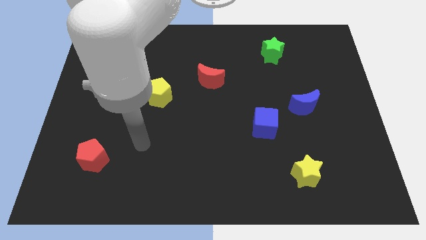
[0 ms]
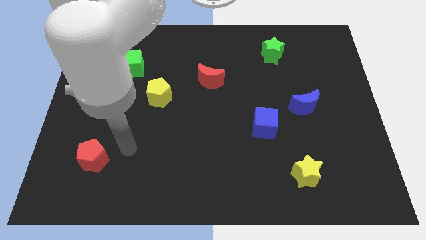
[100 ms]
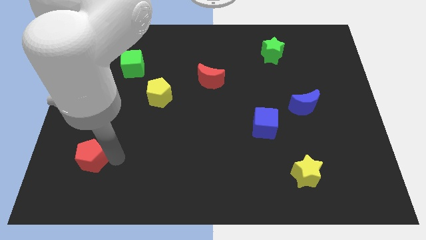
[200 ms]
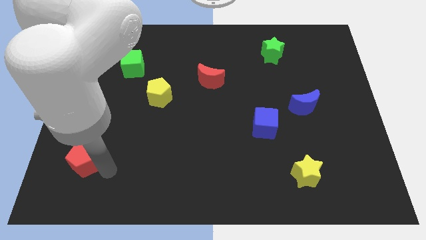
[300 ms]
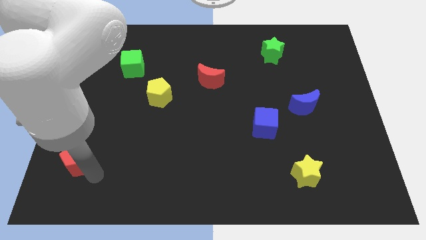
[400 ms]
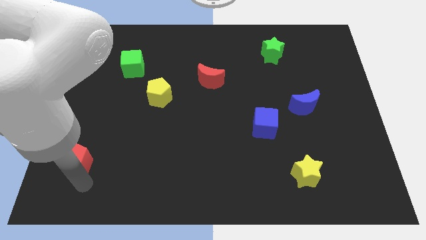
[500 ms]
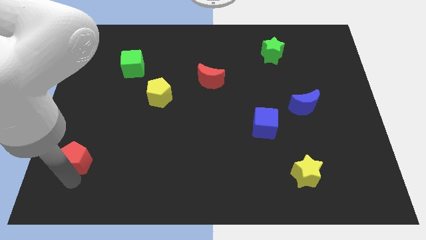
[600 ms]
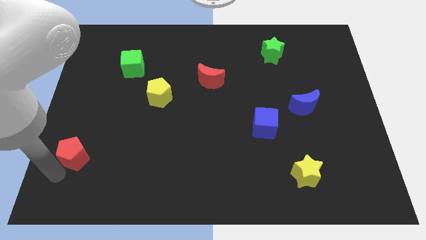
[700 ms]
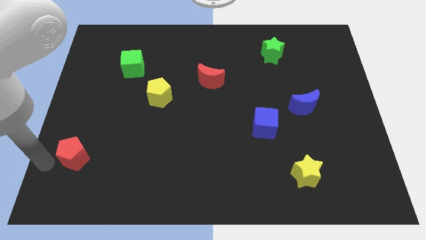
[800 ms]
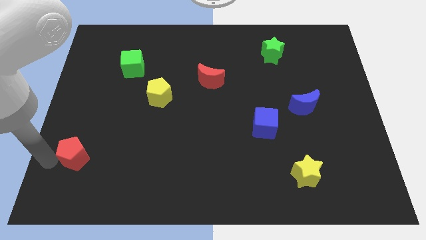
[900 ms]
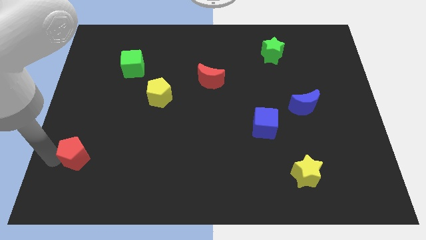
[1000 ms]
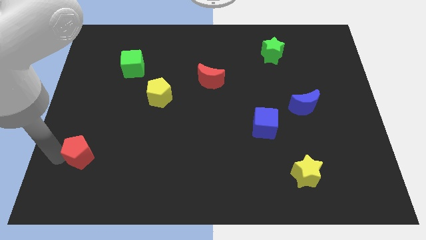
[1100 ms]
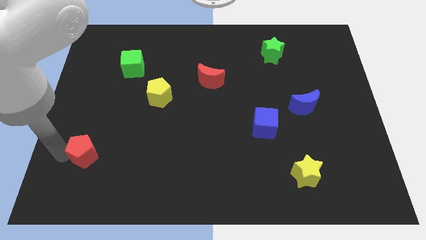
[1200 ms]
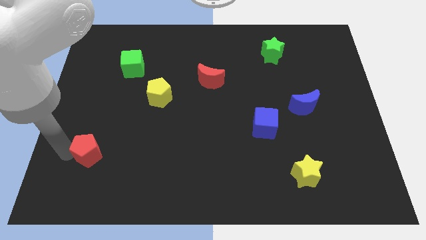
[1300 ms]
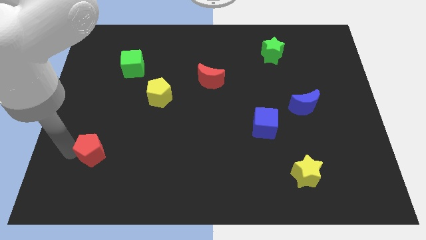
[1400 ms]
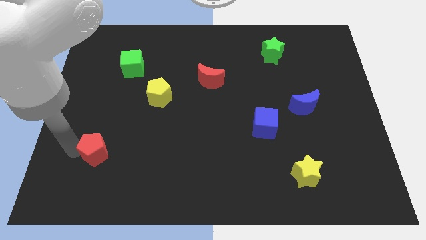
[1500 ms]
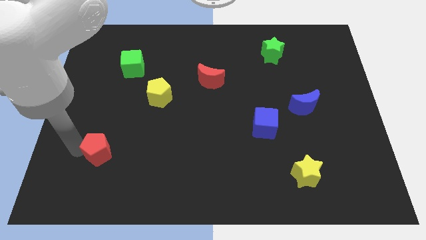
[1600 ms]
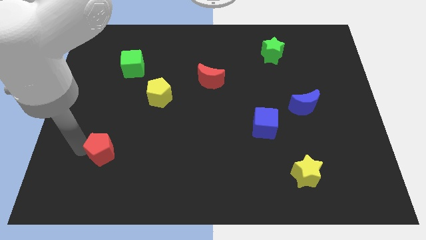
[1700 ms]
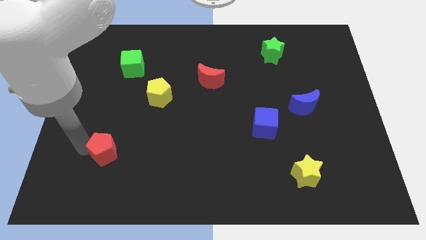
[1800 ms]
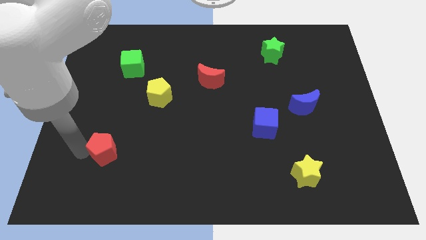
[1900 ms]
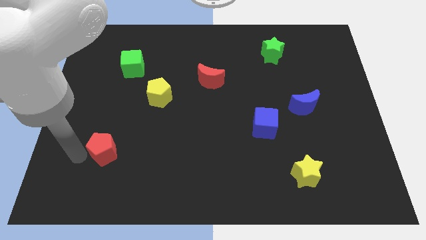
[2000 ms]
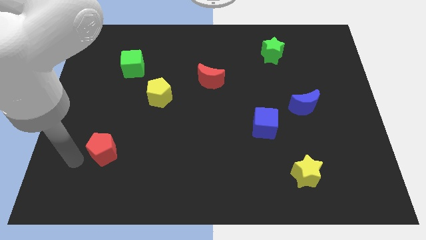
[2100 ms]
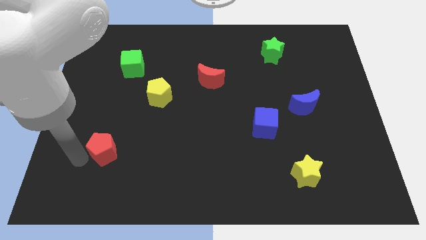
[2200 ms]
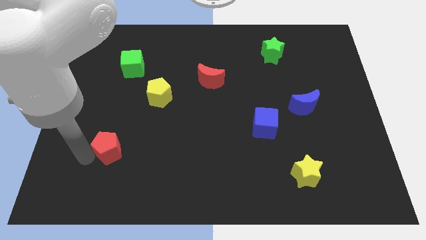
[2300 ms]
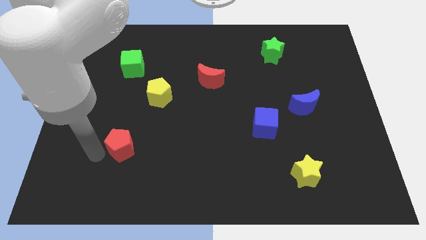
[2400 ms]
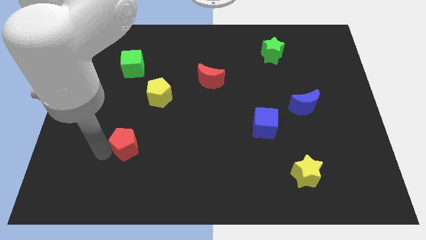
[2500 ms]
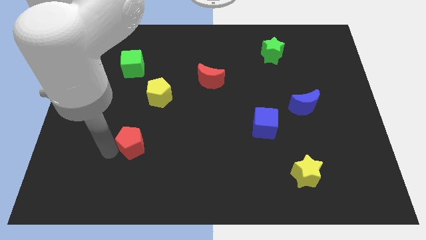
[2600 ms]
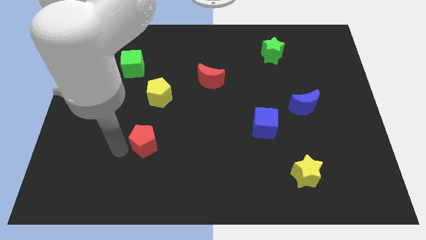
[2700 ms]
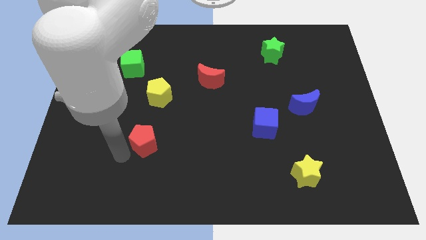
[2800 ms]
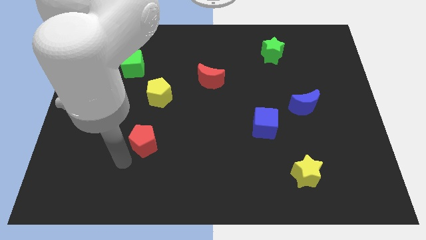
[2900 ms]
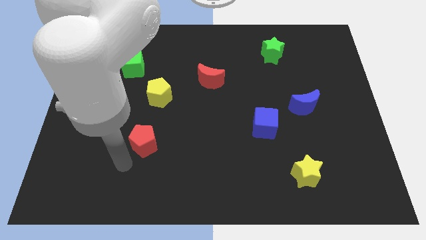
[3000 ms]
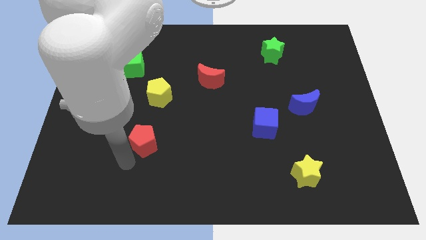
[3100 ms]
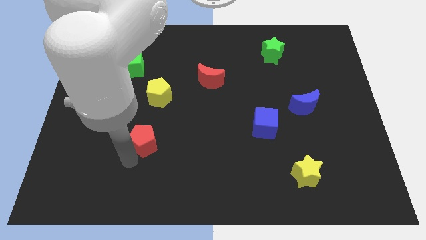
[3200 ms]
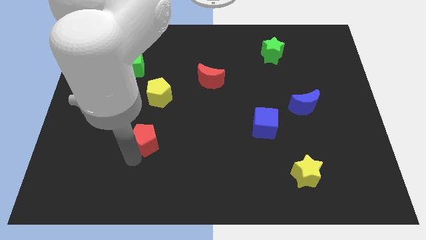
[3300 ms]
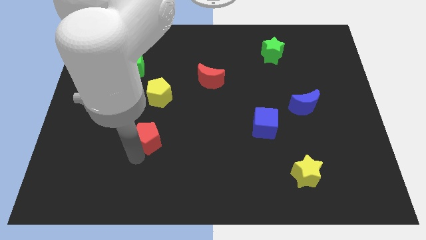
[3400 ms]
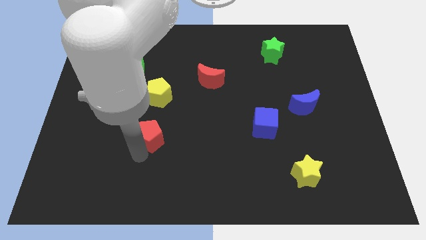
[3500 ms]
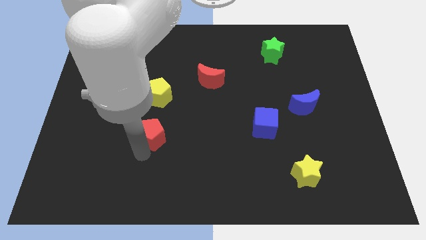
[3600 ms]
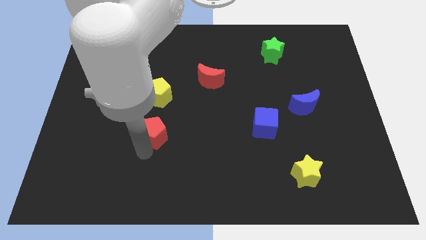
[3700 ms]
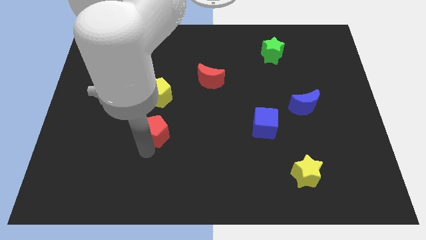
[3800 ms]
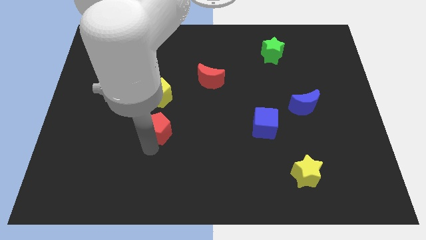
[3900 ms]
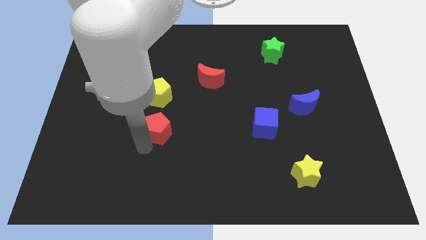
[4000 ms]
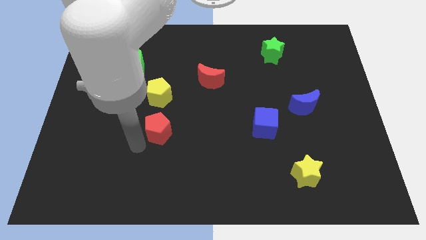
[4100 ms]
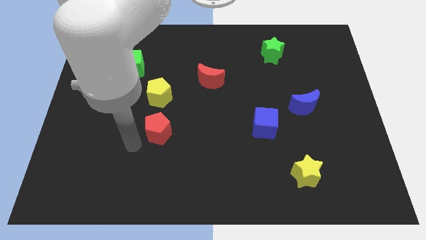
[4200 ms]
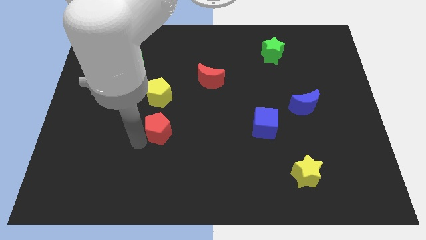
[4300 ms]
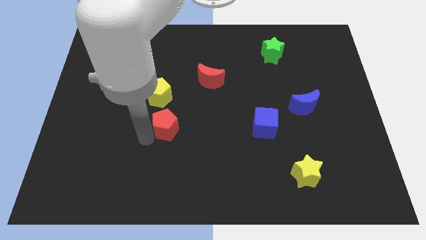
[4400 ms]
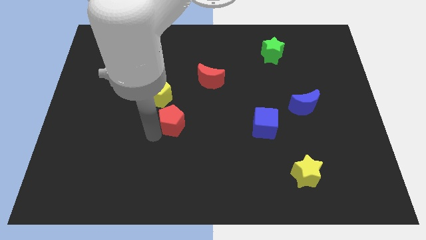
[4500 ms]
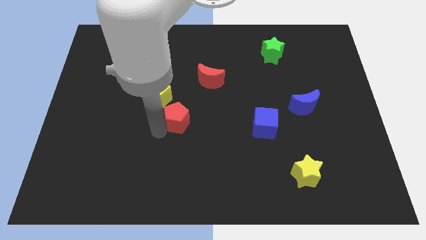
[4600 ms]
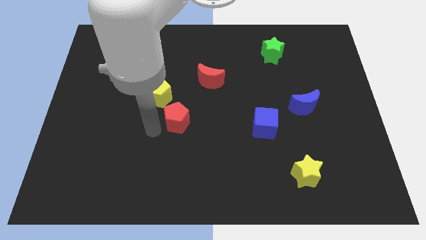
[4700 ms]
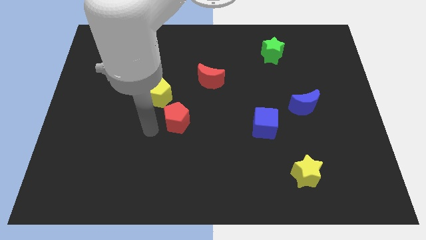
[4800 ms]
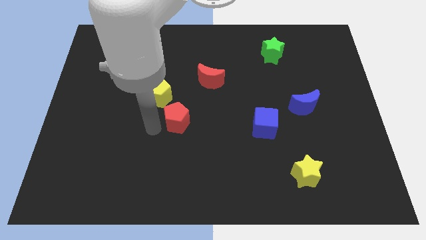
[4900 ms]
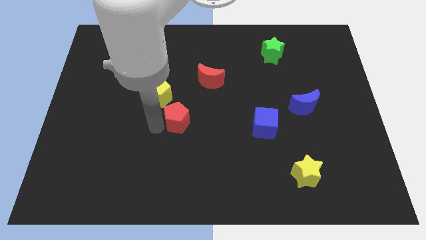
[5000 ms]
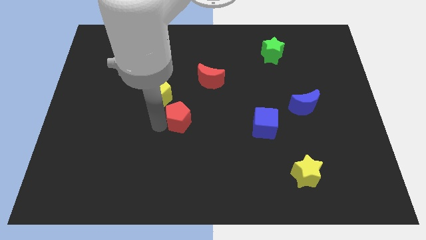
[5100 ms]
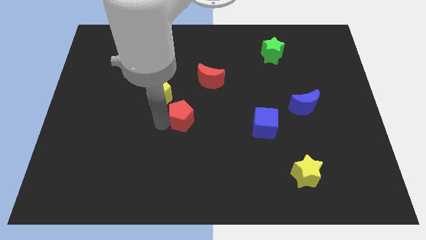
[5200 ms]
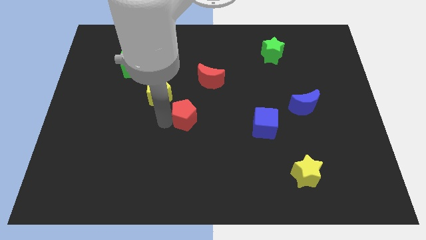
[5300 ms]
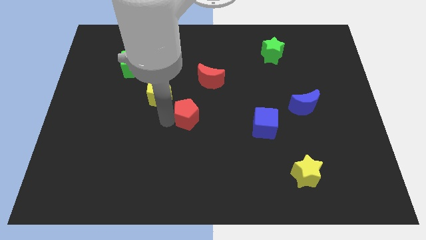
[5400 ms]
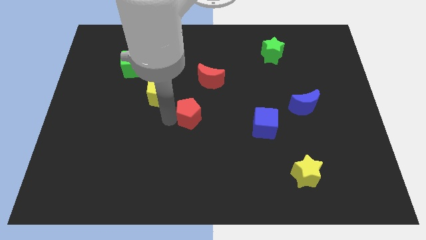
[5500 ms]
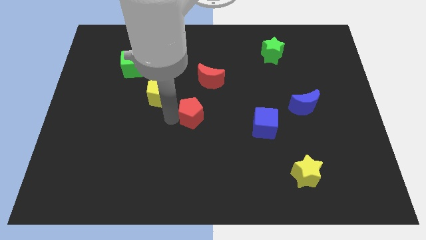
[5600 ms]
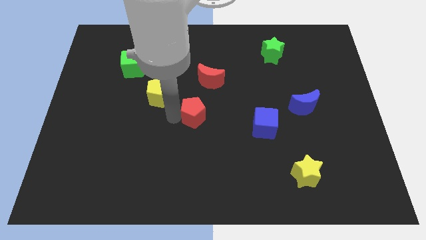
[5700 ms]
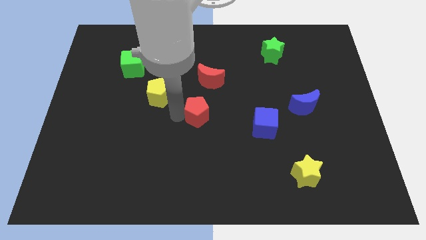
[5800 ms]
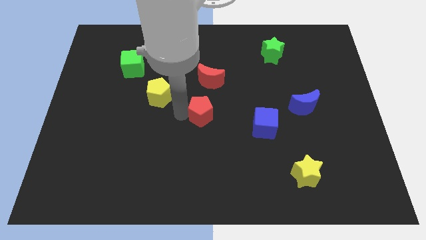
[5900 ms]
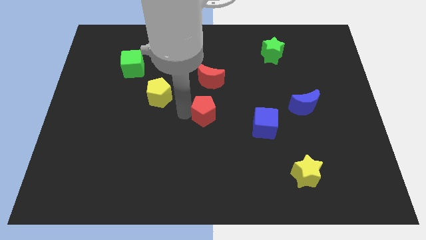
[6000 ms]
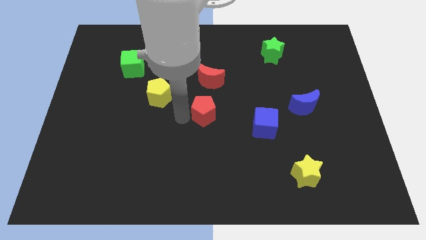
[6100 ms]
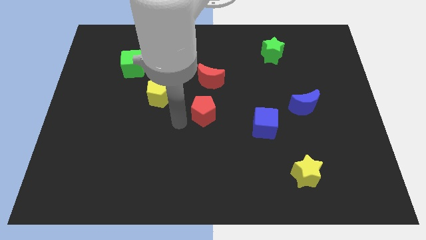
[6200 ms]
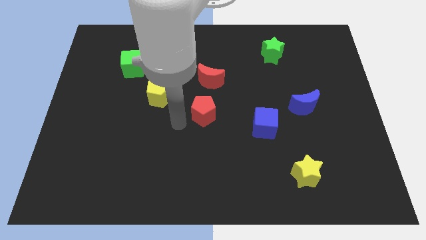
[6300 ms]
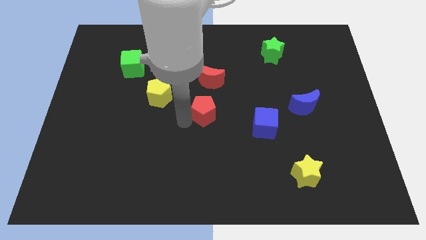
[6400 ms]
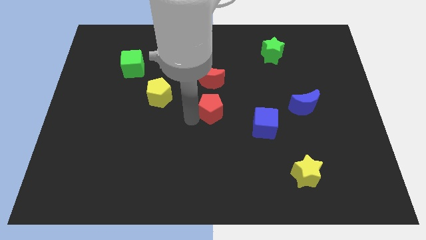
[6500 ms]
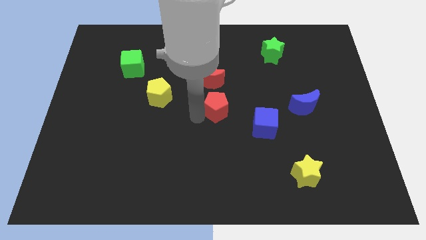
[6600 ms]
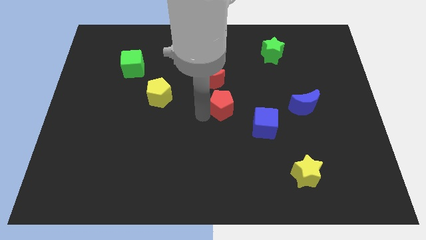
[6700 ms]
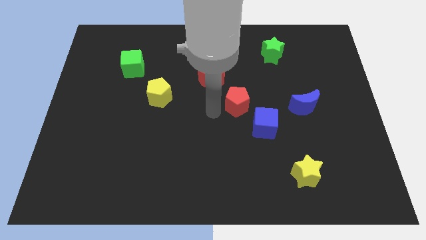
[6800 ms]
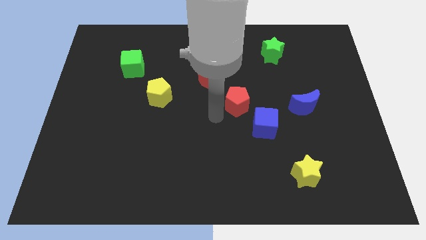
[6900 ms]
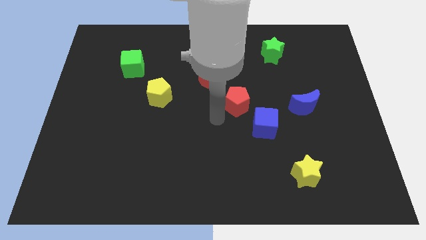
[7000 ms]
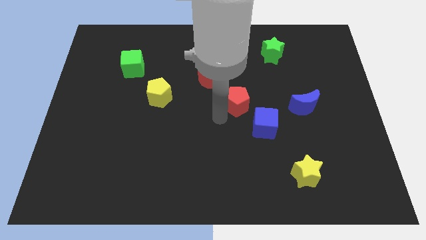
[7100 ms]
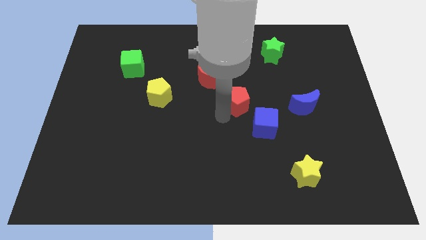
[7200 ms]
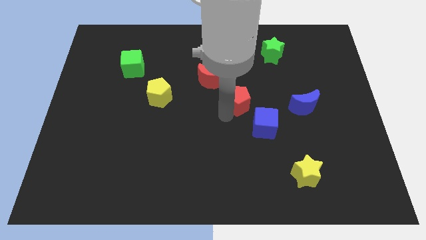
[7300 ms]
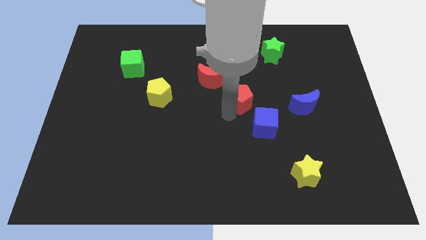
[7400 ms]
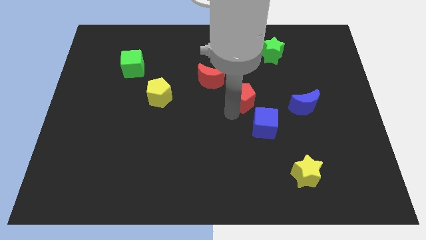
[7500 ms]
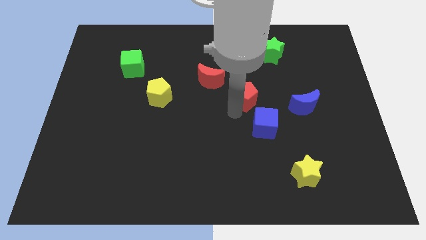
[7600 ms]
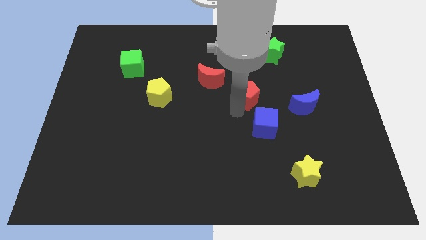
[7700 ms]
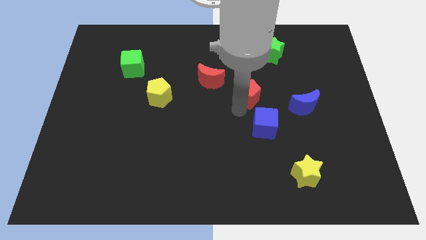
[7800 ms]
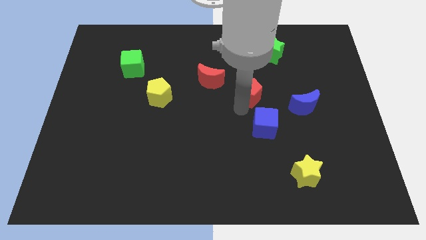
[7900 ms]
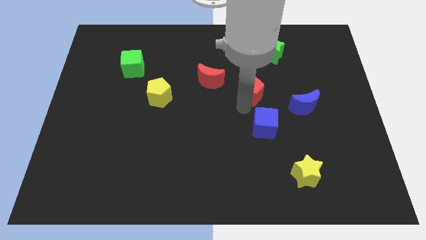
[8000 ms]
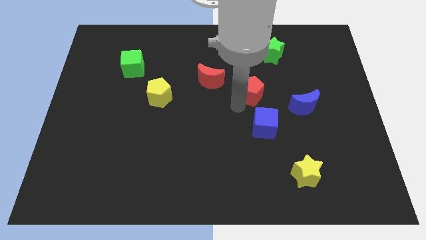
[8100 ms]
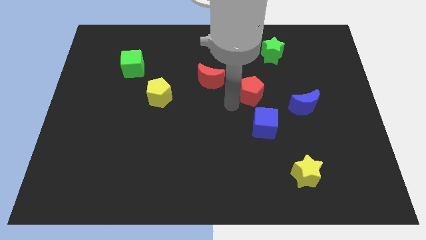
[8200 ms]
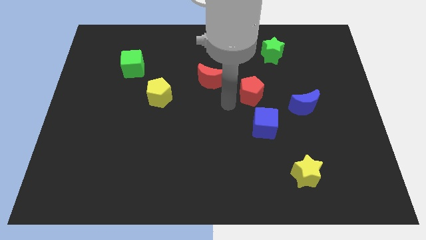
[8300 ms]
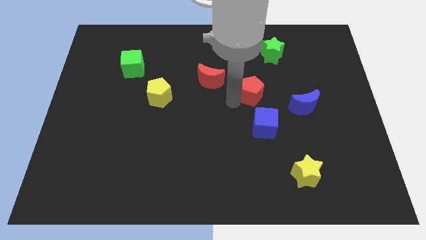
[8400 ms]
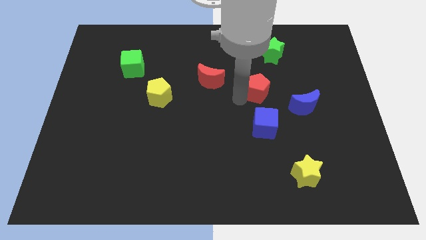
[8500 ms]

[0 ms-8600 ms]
push the red pentagon to the bottom side of the green star
